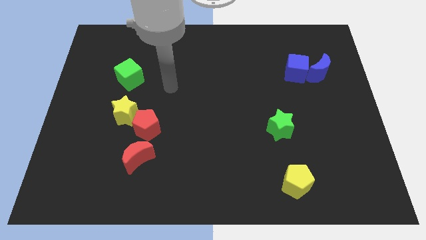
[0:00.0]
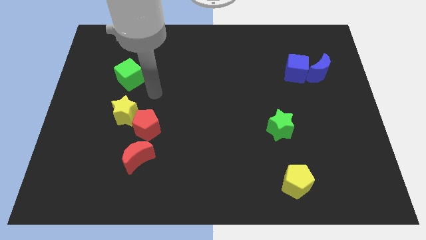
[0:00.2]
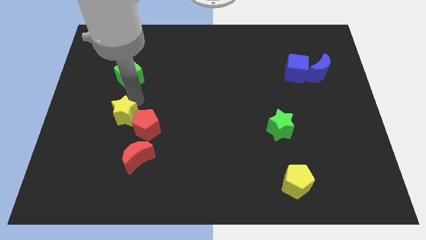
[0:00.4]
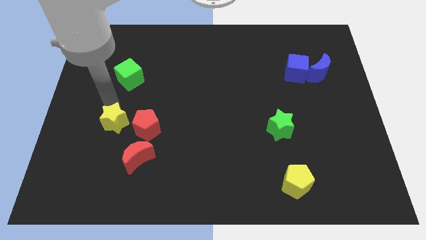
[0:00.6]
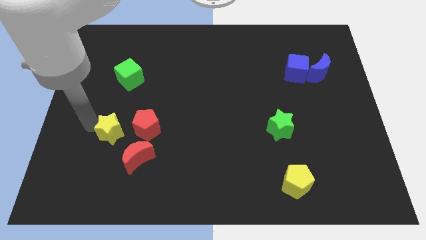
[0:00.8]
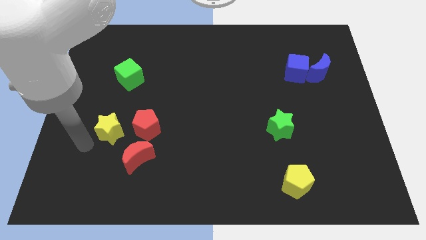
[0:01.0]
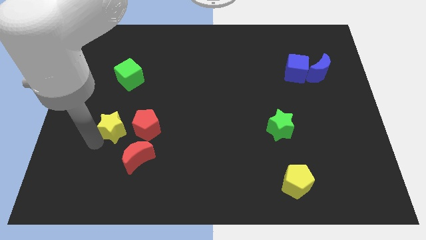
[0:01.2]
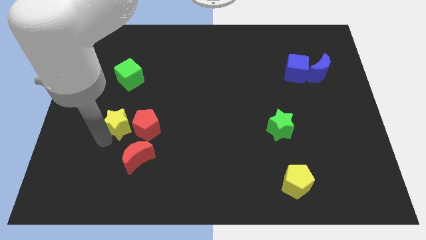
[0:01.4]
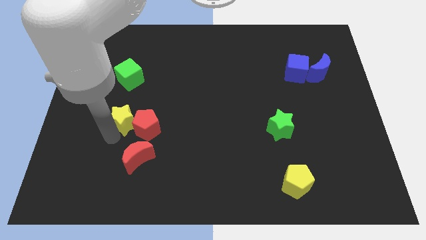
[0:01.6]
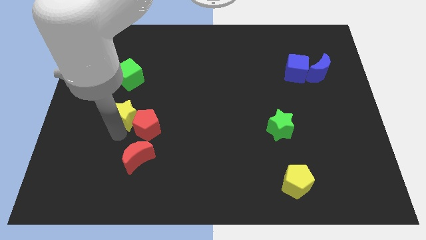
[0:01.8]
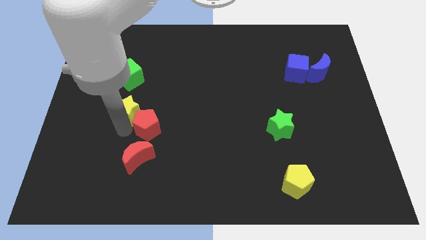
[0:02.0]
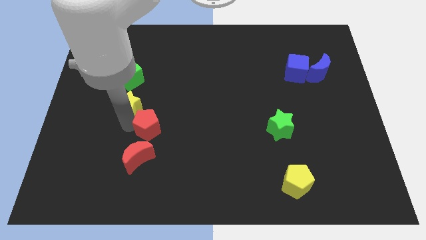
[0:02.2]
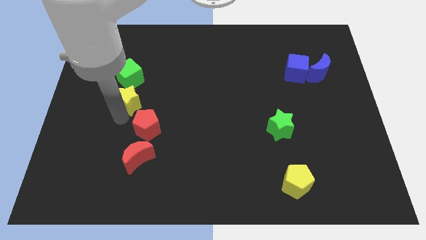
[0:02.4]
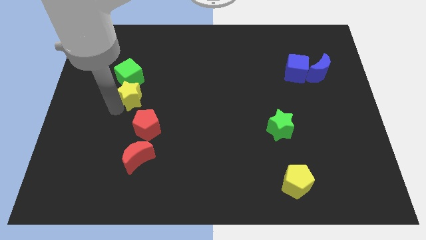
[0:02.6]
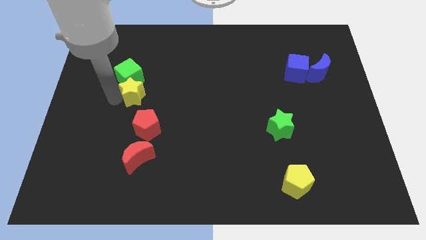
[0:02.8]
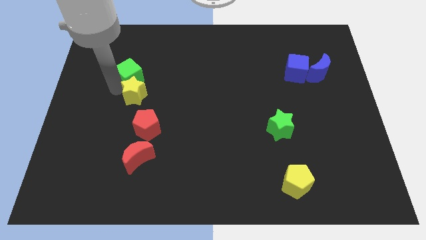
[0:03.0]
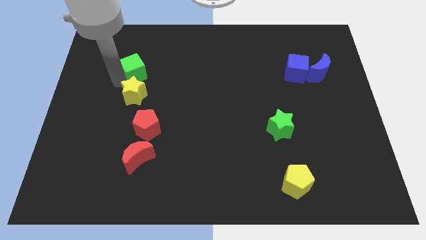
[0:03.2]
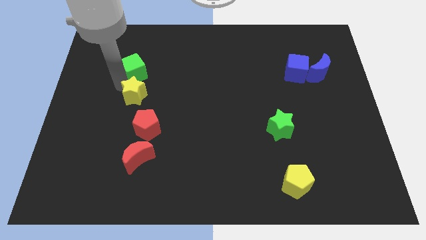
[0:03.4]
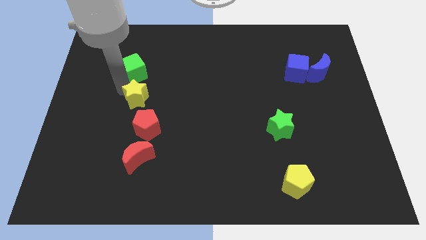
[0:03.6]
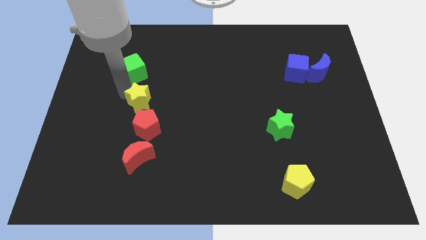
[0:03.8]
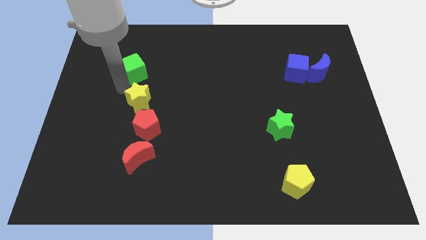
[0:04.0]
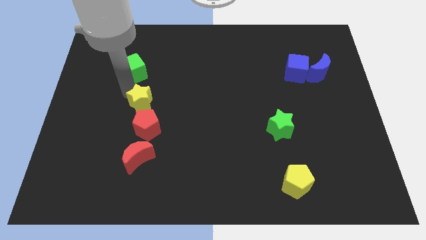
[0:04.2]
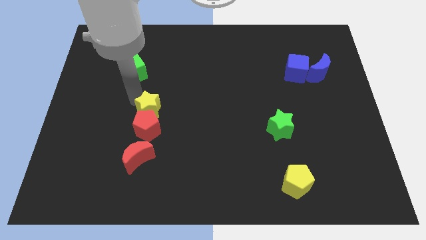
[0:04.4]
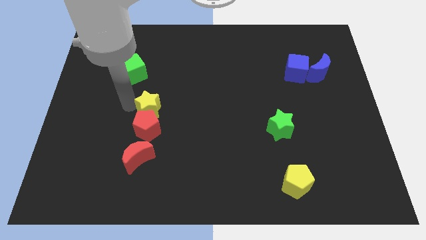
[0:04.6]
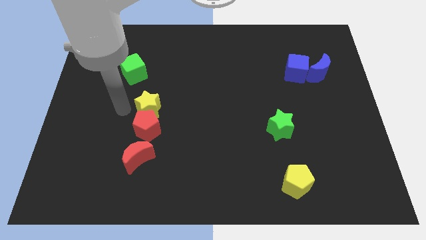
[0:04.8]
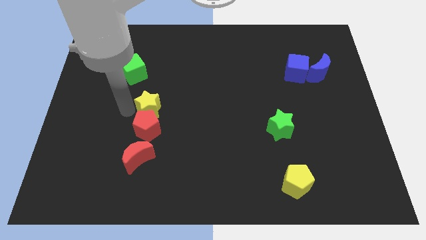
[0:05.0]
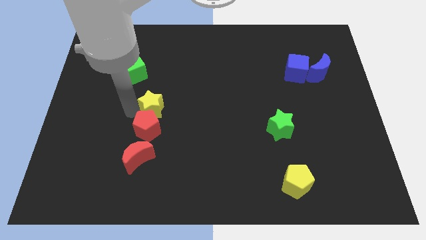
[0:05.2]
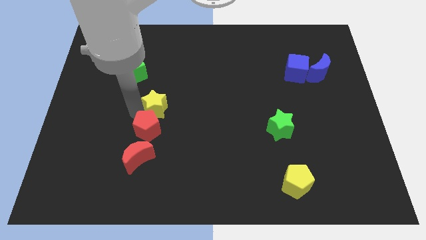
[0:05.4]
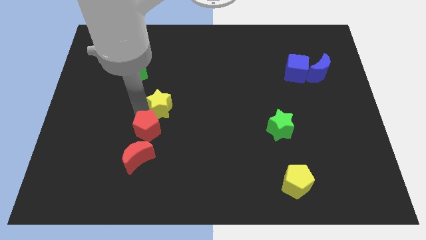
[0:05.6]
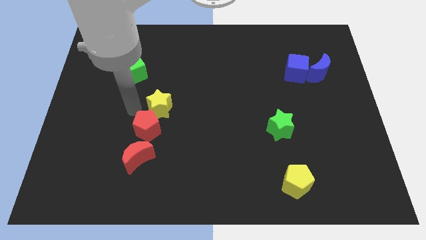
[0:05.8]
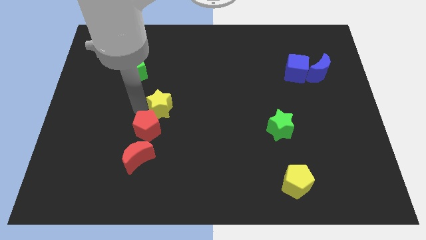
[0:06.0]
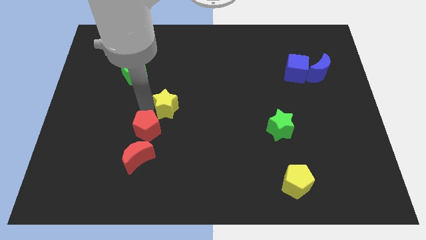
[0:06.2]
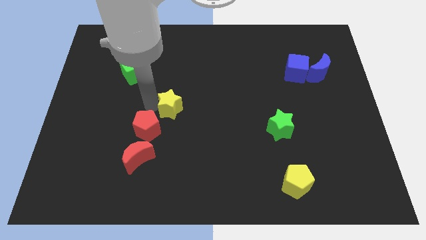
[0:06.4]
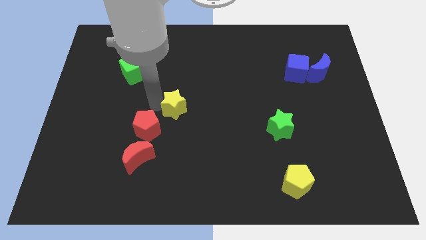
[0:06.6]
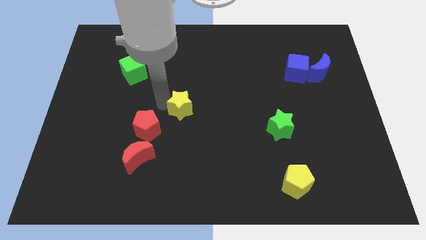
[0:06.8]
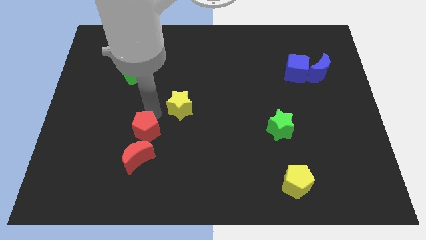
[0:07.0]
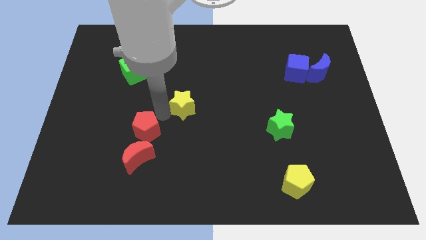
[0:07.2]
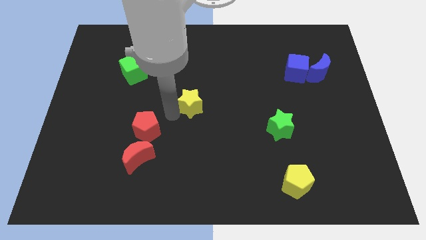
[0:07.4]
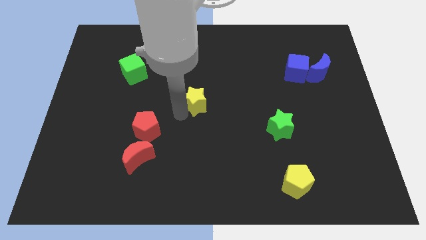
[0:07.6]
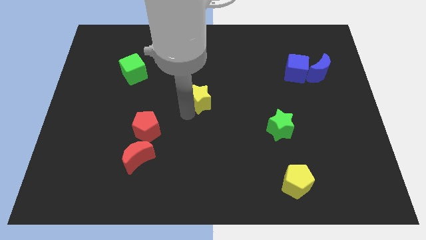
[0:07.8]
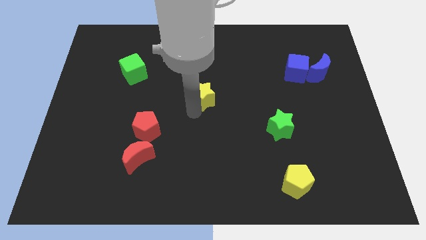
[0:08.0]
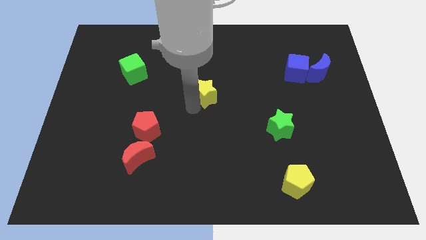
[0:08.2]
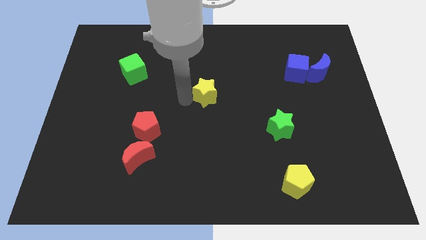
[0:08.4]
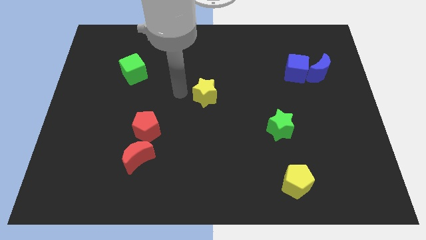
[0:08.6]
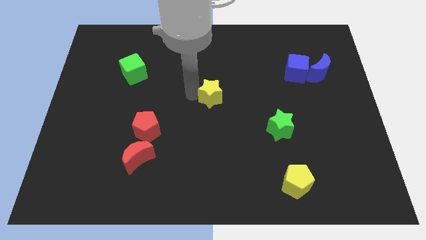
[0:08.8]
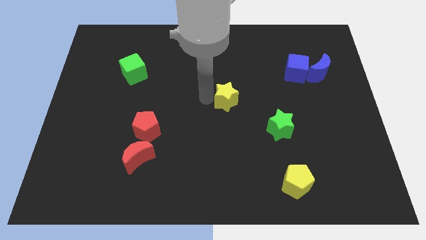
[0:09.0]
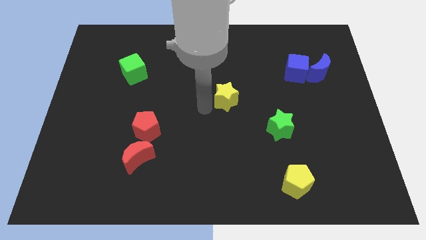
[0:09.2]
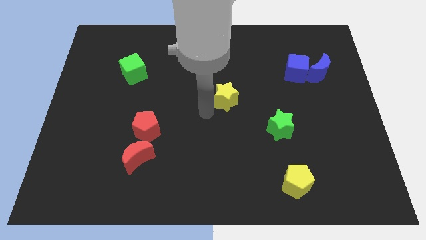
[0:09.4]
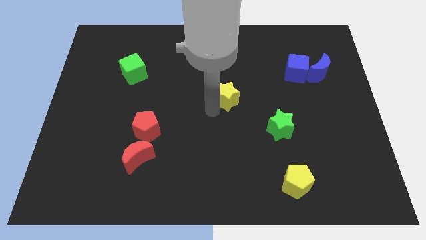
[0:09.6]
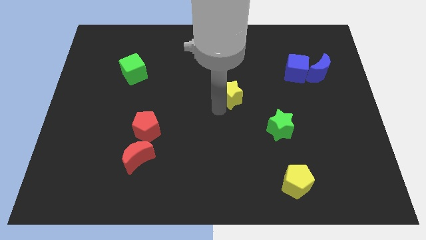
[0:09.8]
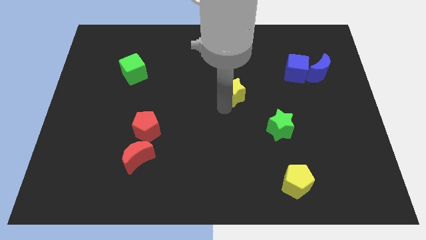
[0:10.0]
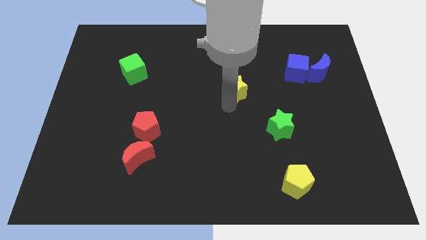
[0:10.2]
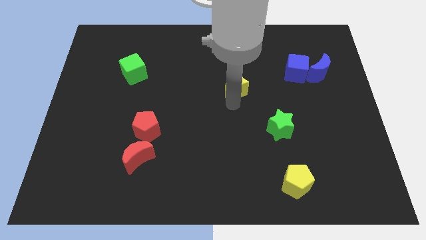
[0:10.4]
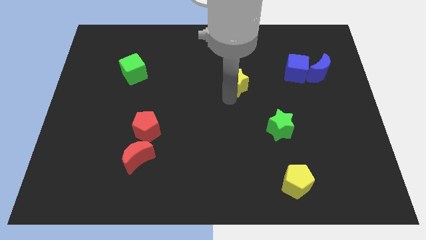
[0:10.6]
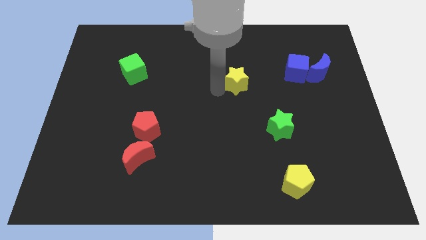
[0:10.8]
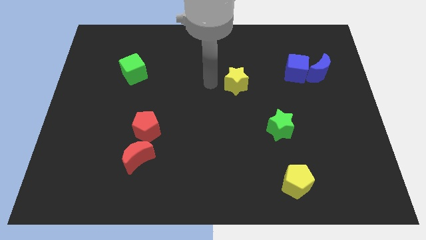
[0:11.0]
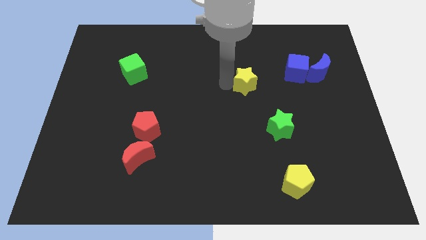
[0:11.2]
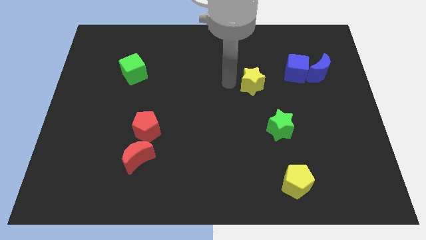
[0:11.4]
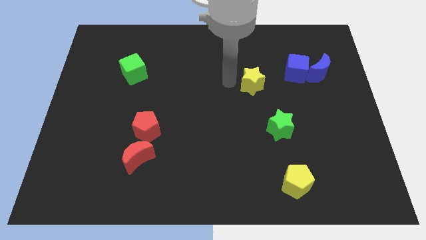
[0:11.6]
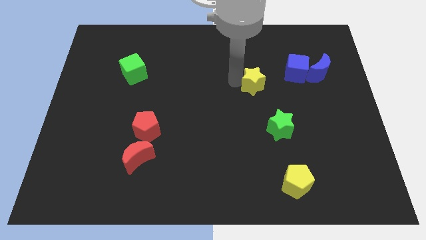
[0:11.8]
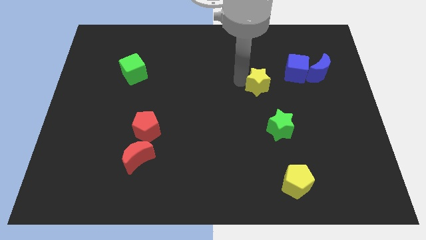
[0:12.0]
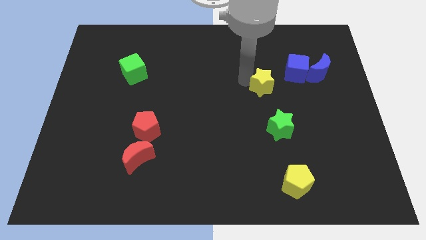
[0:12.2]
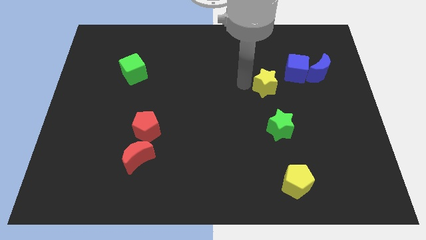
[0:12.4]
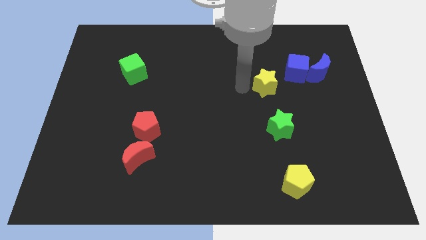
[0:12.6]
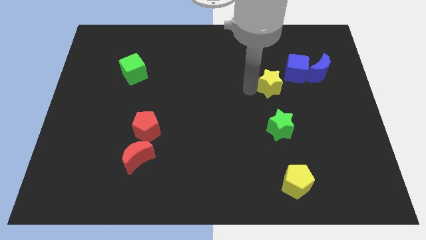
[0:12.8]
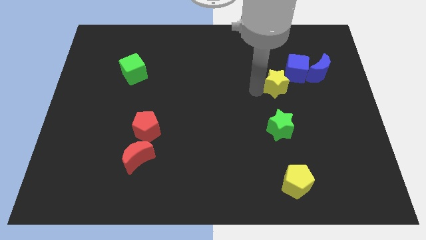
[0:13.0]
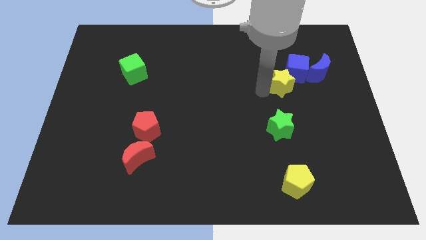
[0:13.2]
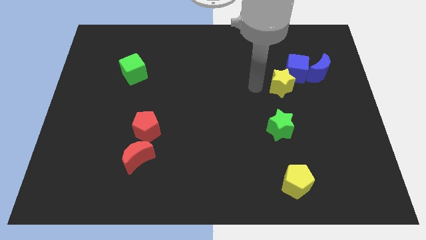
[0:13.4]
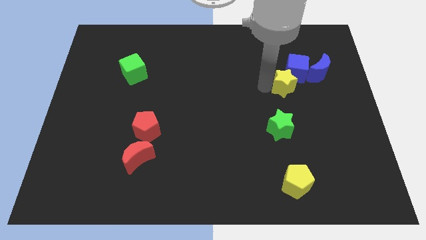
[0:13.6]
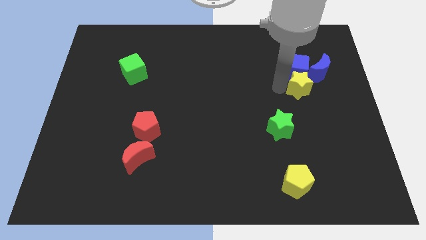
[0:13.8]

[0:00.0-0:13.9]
slide the yellow star diagonally down and to the right of the blue cube
